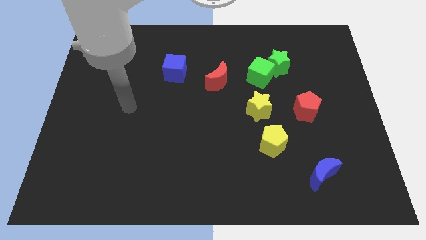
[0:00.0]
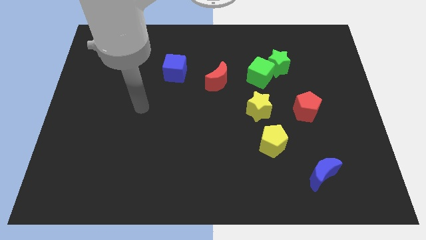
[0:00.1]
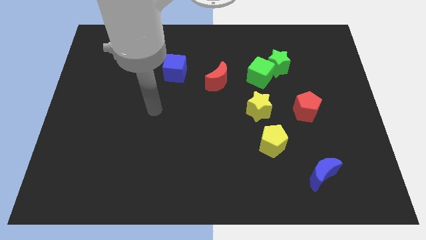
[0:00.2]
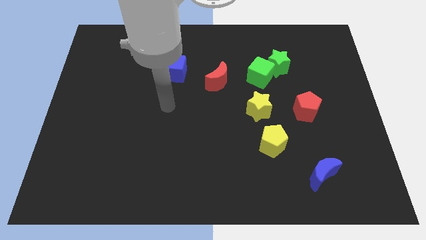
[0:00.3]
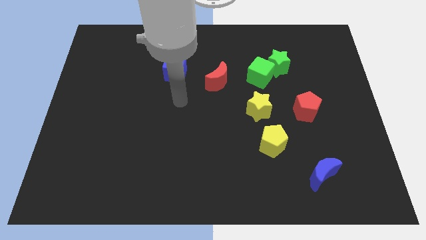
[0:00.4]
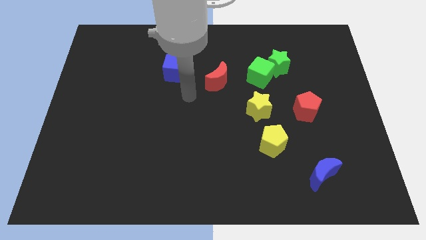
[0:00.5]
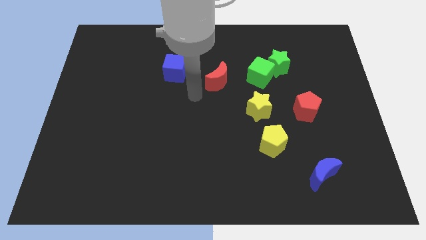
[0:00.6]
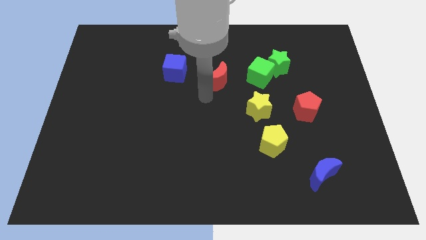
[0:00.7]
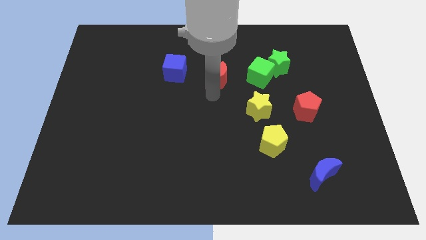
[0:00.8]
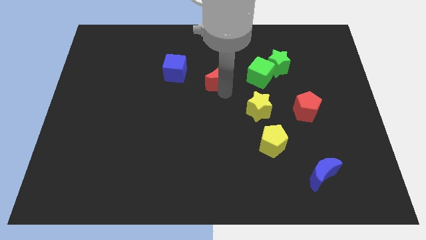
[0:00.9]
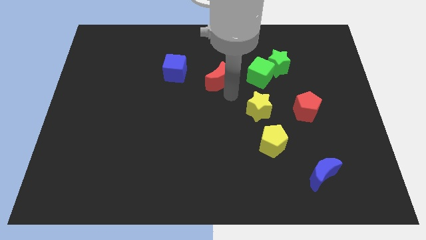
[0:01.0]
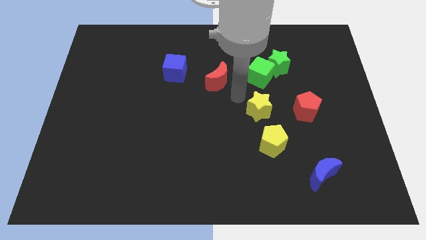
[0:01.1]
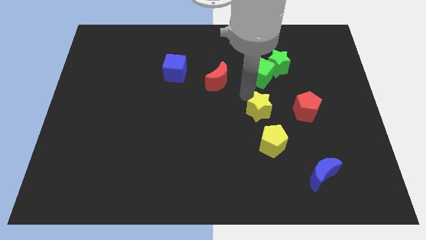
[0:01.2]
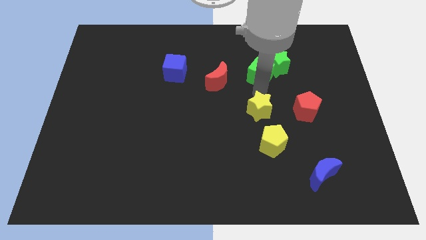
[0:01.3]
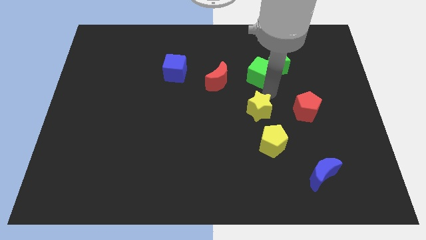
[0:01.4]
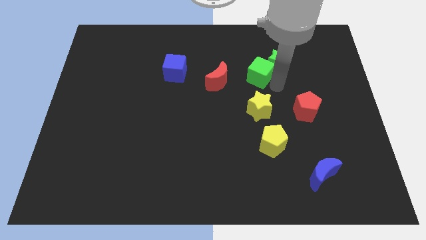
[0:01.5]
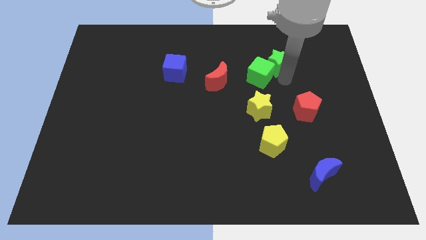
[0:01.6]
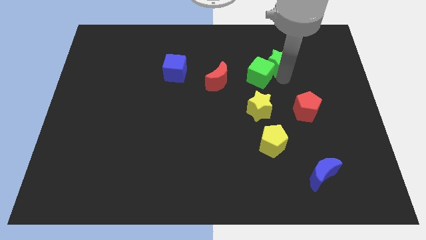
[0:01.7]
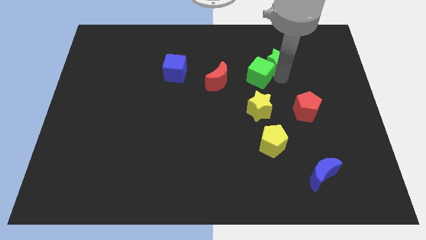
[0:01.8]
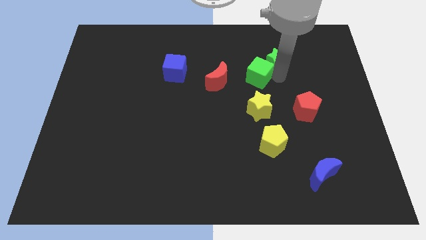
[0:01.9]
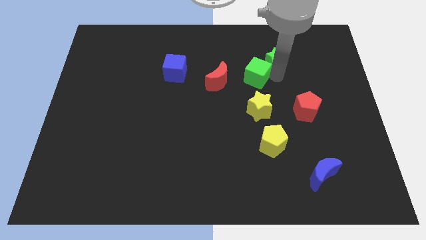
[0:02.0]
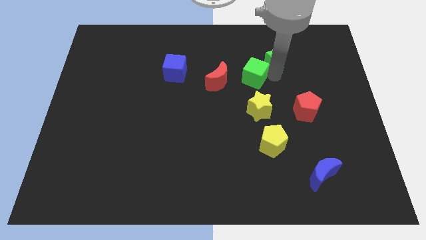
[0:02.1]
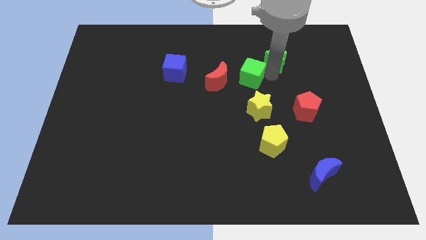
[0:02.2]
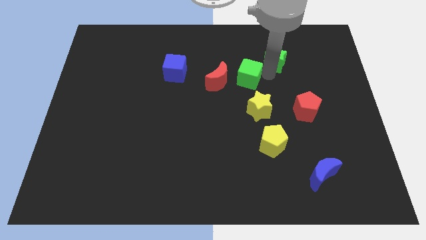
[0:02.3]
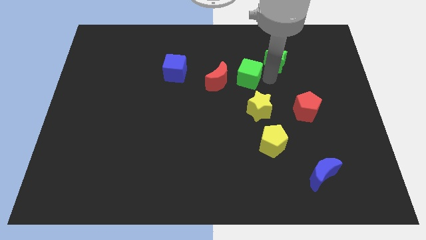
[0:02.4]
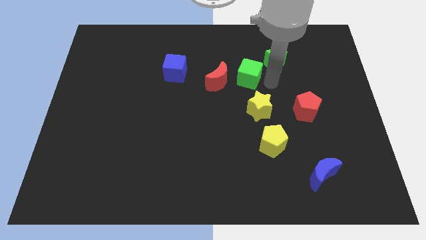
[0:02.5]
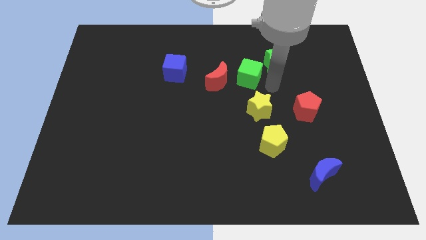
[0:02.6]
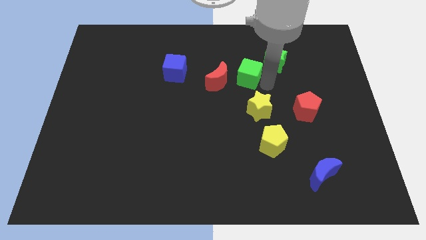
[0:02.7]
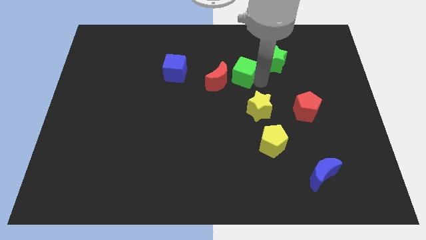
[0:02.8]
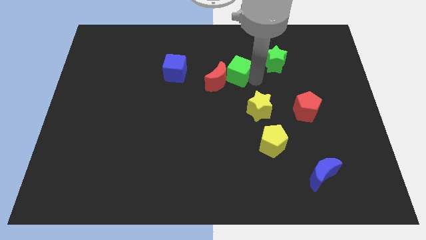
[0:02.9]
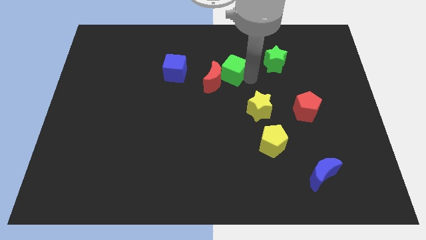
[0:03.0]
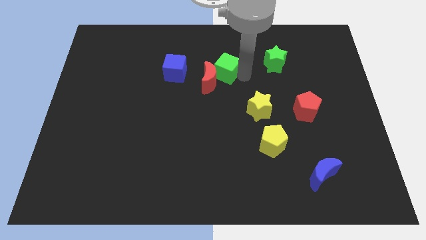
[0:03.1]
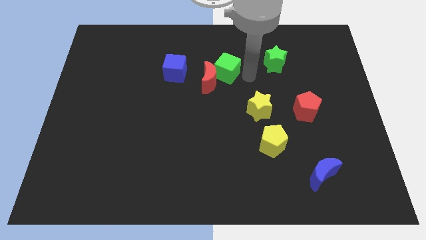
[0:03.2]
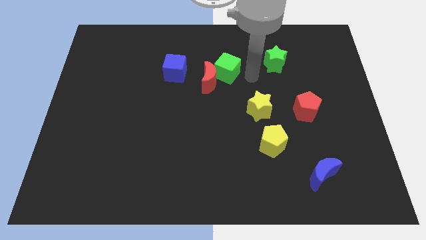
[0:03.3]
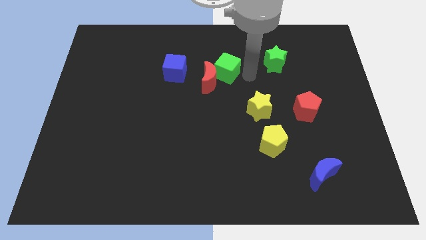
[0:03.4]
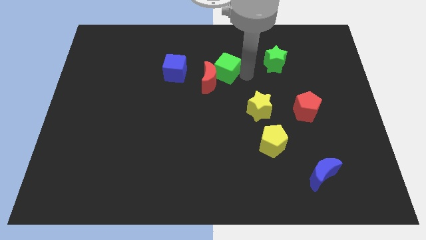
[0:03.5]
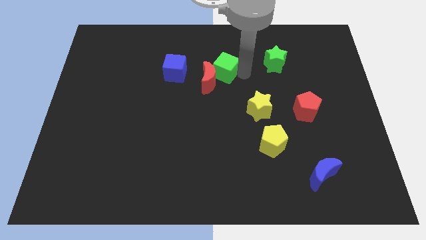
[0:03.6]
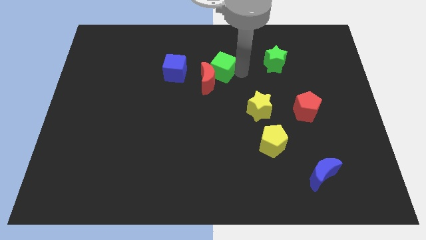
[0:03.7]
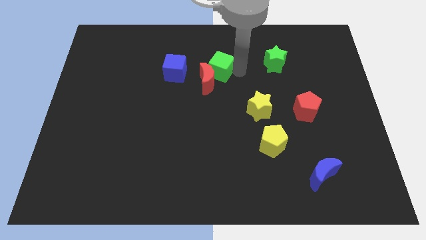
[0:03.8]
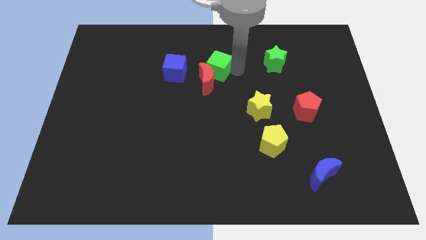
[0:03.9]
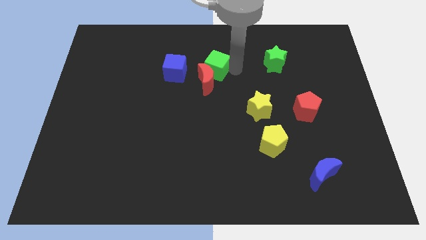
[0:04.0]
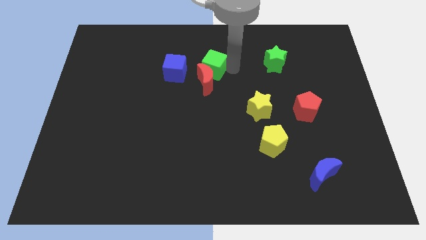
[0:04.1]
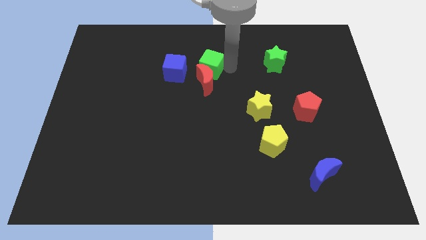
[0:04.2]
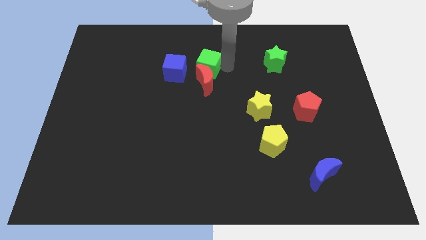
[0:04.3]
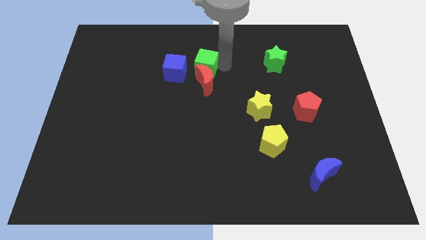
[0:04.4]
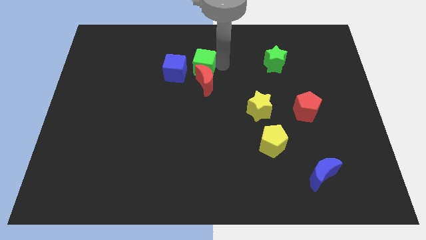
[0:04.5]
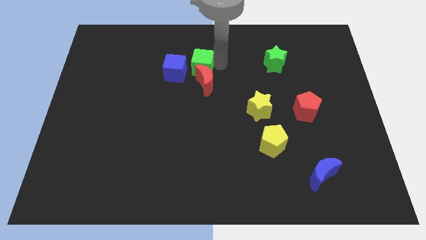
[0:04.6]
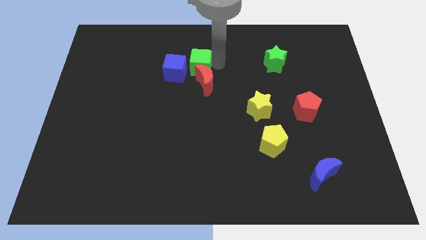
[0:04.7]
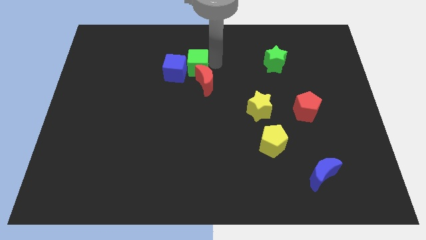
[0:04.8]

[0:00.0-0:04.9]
put the green cube to the blue cube

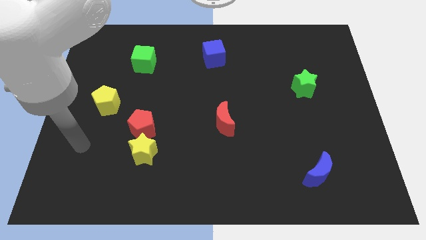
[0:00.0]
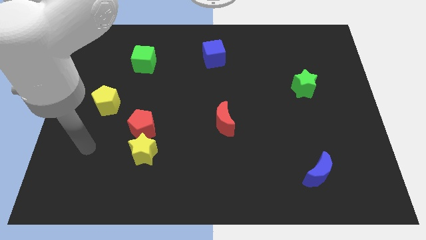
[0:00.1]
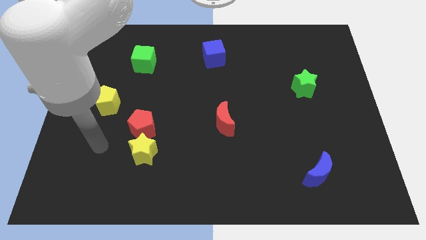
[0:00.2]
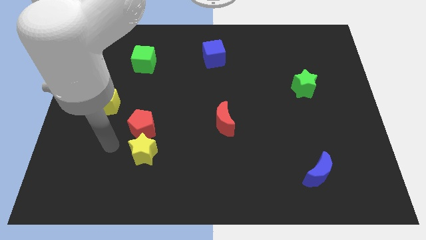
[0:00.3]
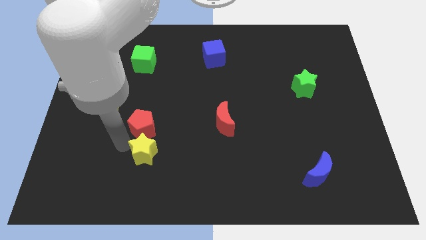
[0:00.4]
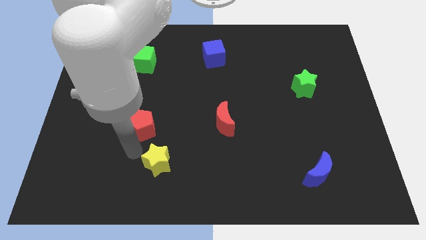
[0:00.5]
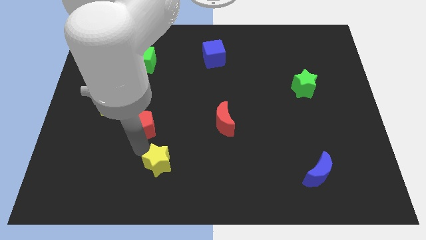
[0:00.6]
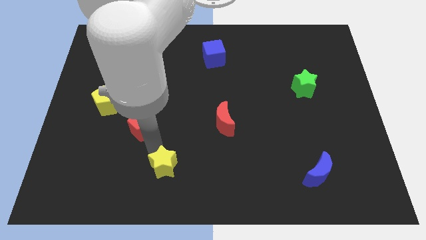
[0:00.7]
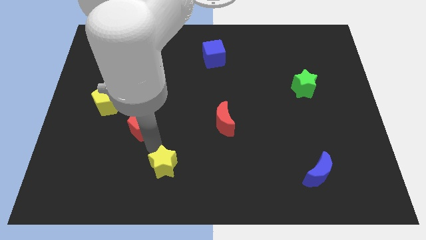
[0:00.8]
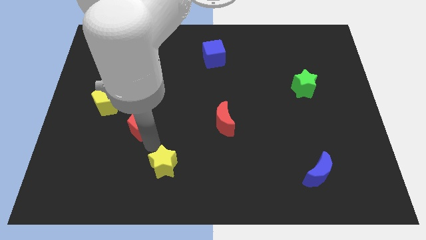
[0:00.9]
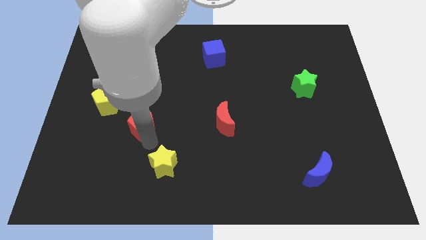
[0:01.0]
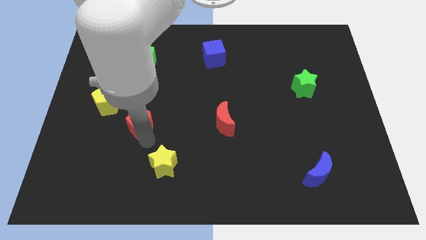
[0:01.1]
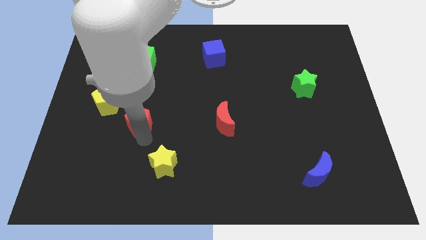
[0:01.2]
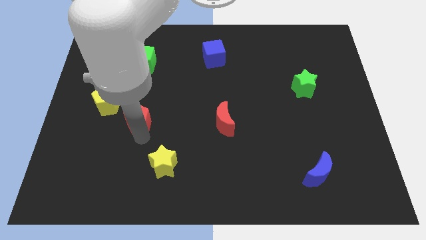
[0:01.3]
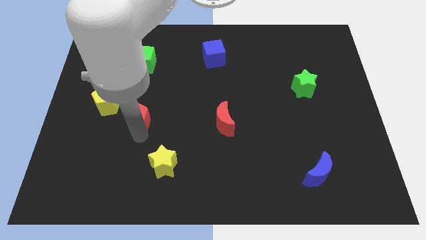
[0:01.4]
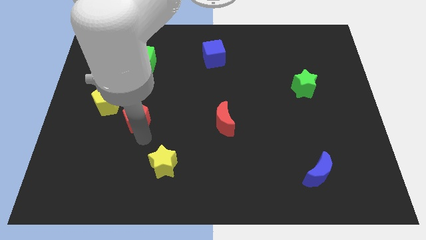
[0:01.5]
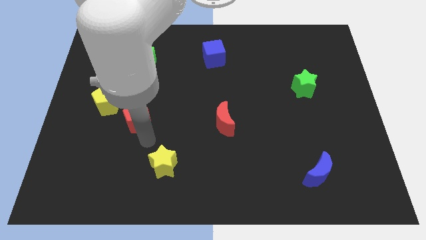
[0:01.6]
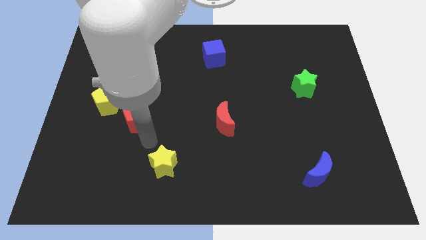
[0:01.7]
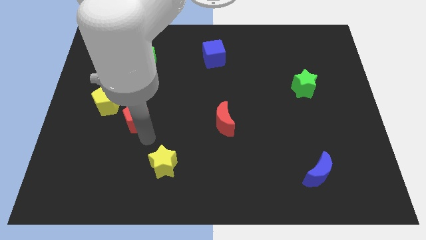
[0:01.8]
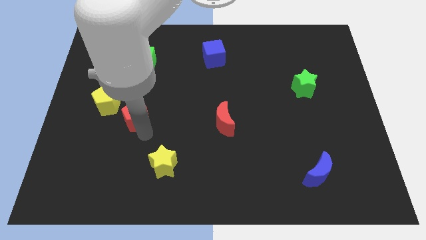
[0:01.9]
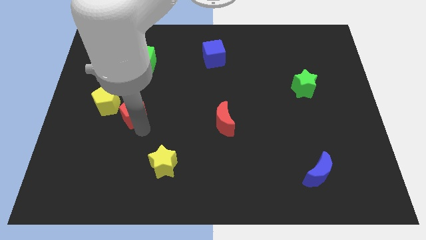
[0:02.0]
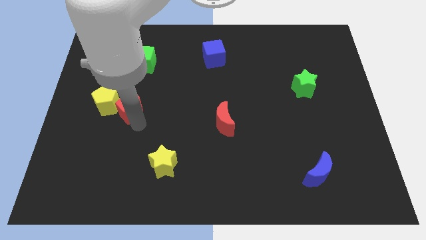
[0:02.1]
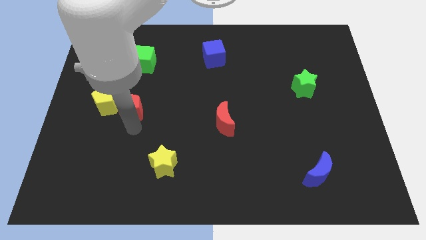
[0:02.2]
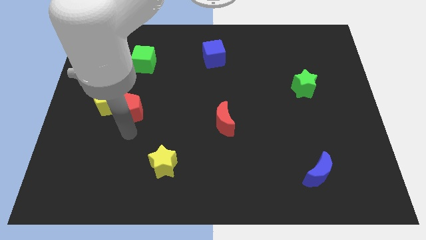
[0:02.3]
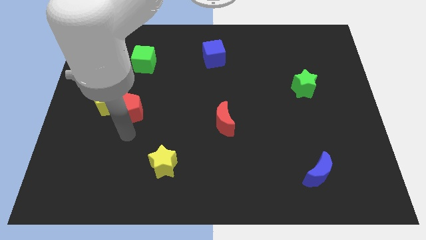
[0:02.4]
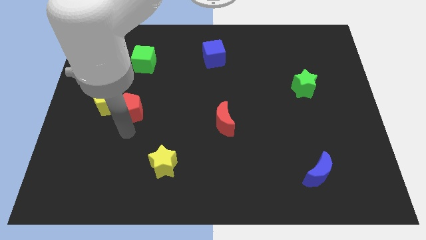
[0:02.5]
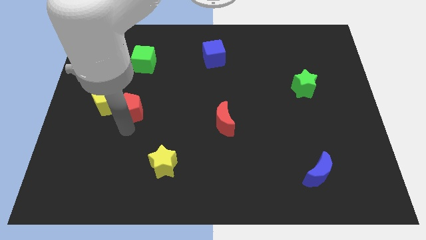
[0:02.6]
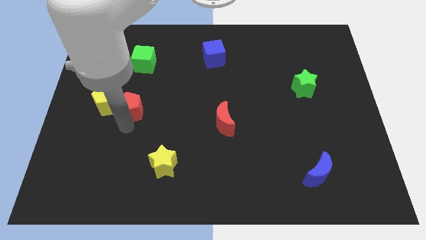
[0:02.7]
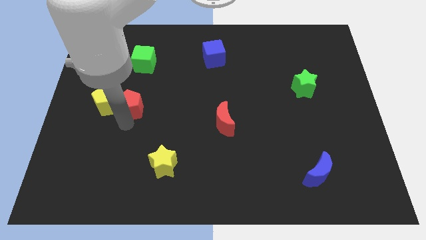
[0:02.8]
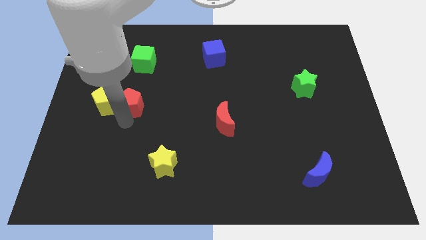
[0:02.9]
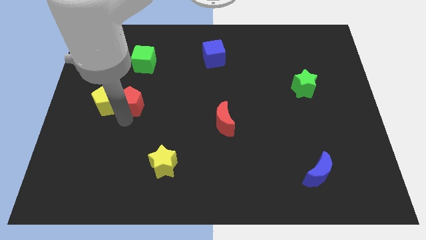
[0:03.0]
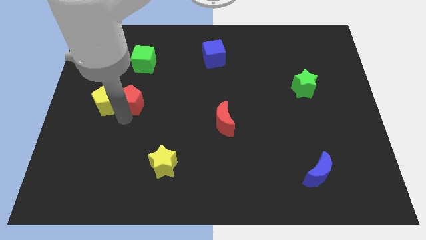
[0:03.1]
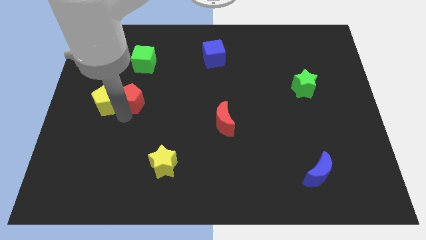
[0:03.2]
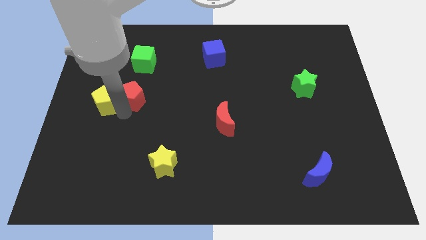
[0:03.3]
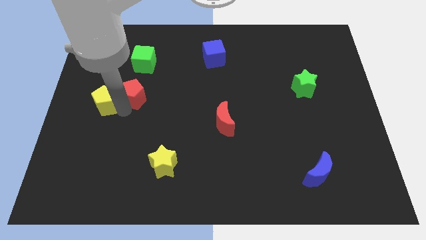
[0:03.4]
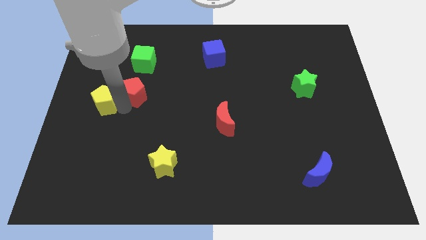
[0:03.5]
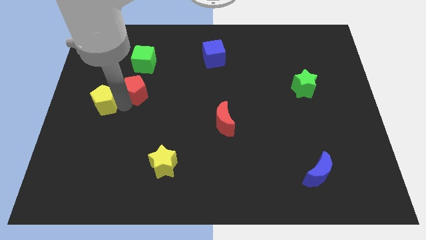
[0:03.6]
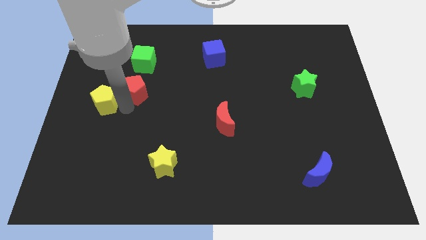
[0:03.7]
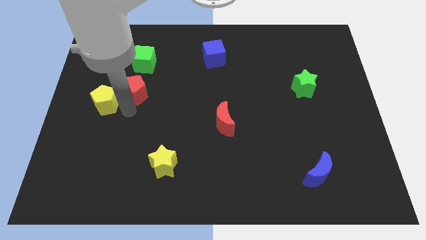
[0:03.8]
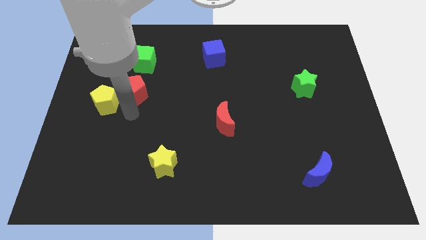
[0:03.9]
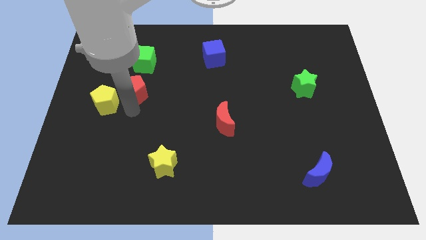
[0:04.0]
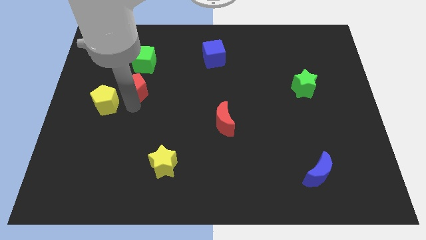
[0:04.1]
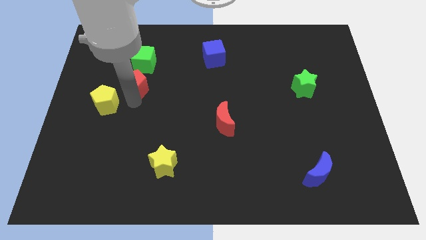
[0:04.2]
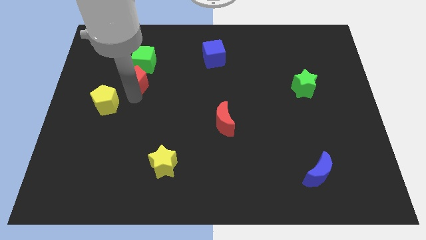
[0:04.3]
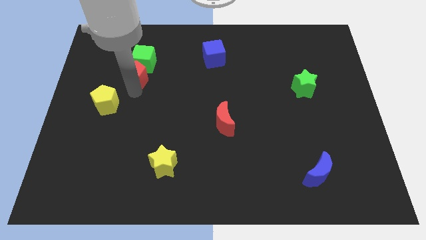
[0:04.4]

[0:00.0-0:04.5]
move the red pentagon to the green cube
